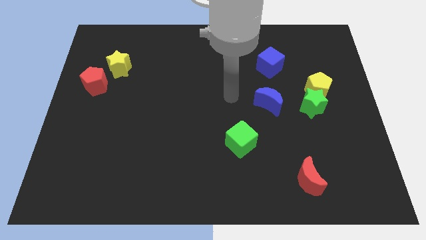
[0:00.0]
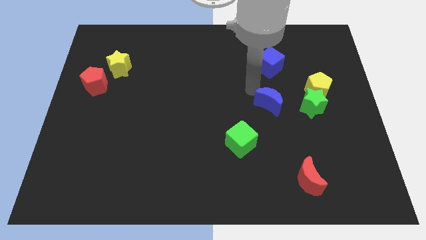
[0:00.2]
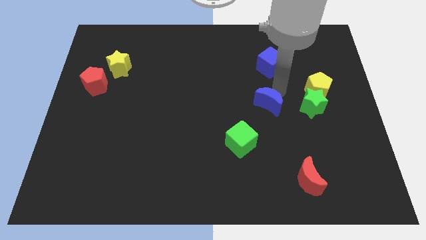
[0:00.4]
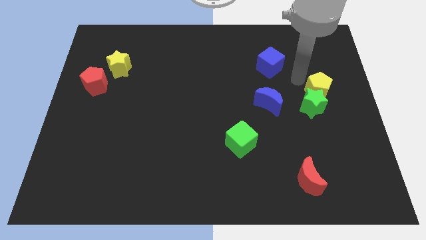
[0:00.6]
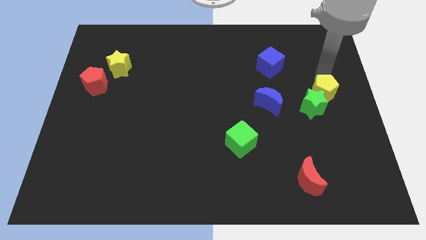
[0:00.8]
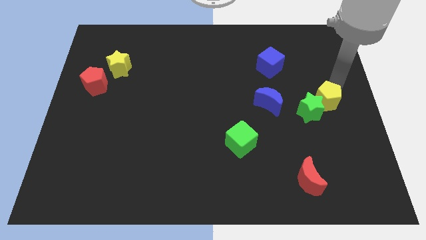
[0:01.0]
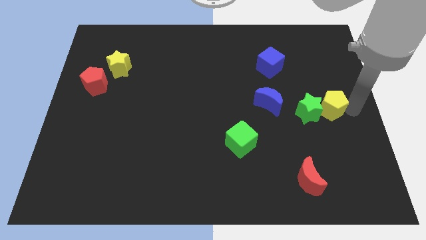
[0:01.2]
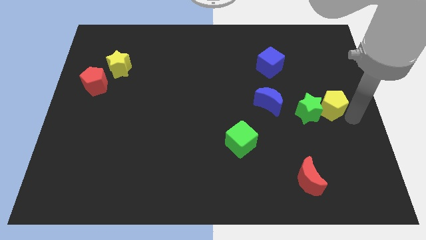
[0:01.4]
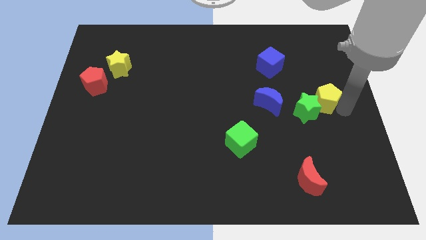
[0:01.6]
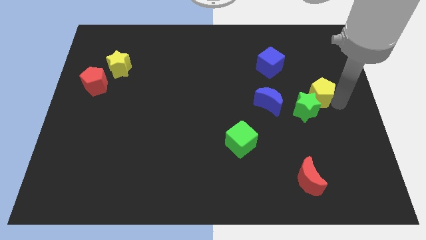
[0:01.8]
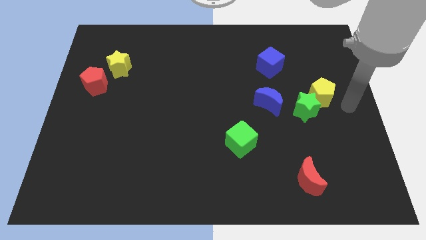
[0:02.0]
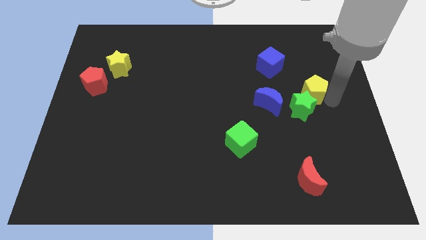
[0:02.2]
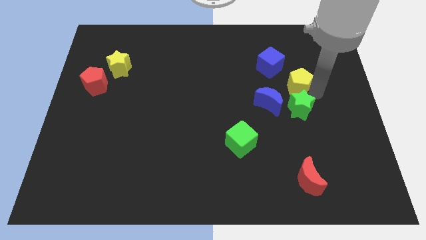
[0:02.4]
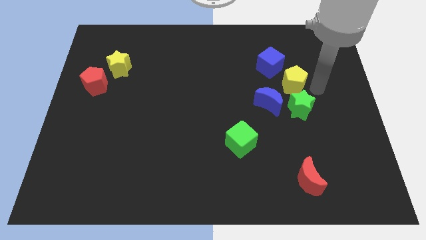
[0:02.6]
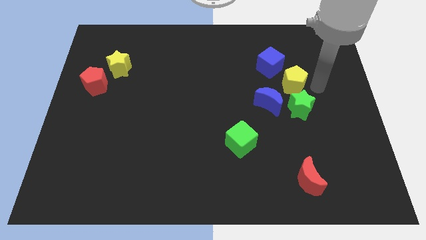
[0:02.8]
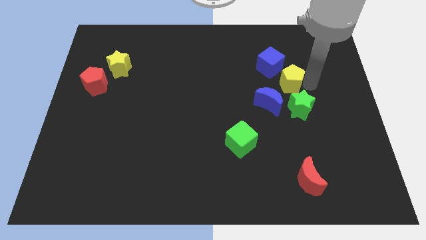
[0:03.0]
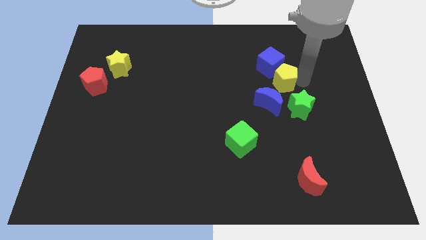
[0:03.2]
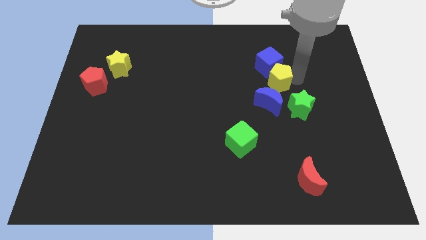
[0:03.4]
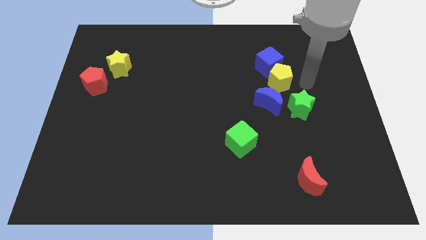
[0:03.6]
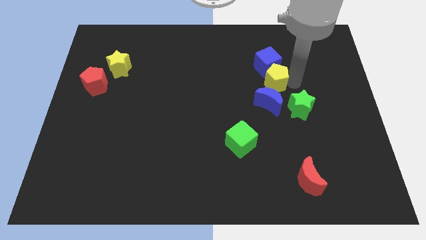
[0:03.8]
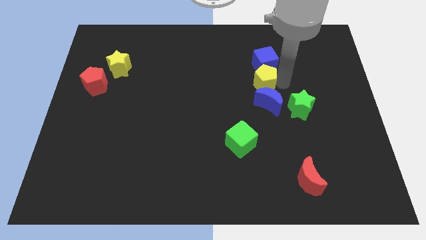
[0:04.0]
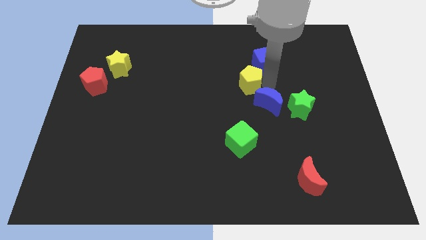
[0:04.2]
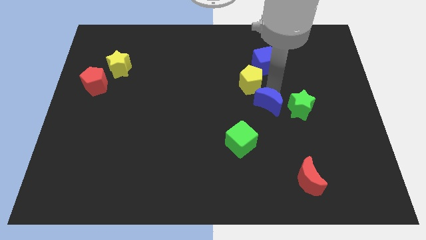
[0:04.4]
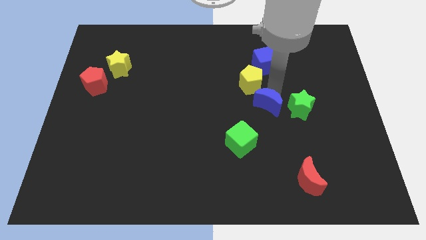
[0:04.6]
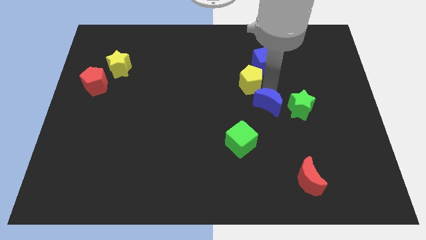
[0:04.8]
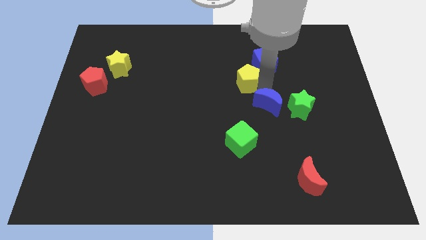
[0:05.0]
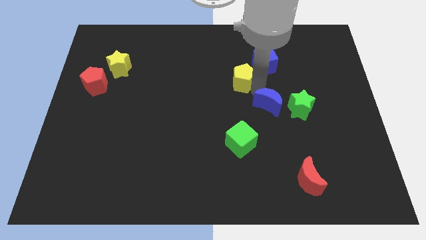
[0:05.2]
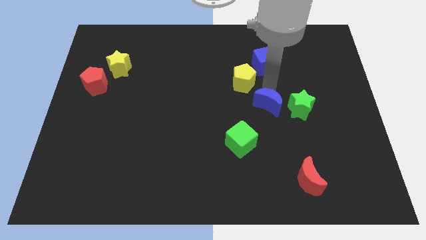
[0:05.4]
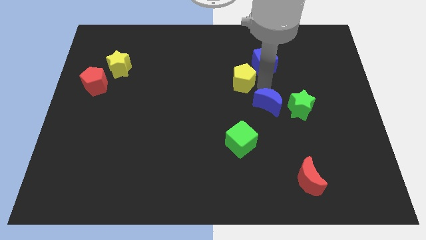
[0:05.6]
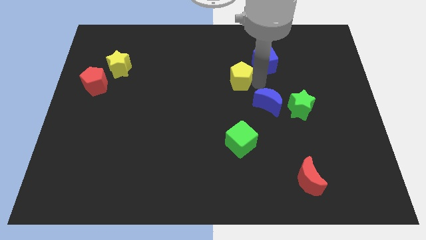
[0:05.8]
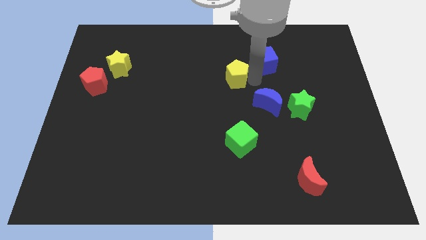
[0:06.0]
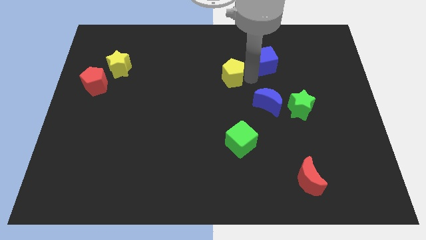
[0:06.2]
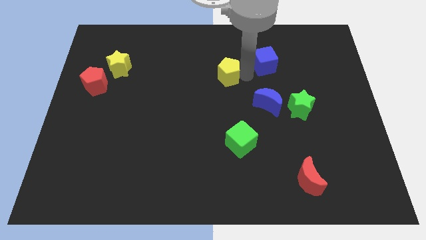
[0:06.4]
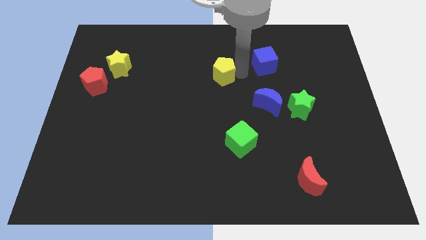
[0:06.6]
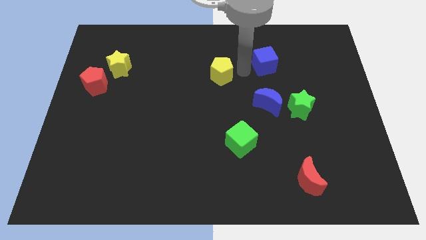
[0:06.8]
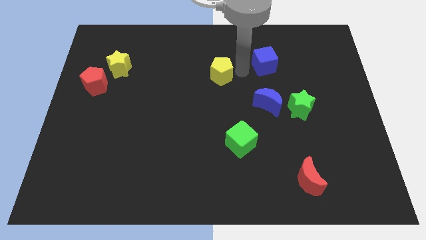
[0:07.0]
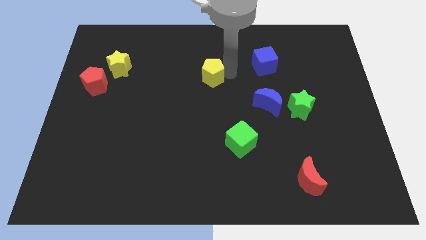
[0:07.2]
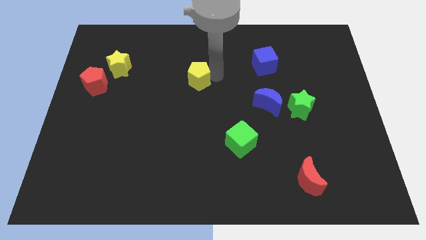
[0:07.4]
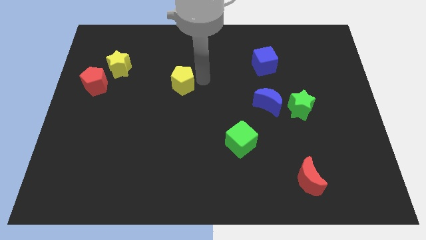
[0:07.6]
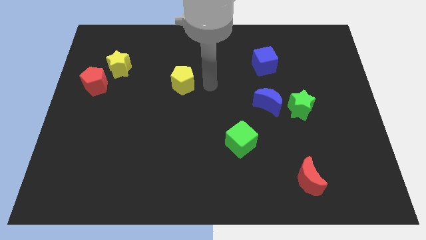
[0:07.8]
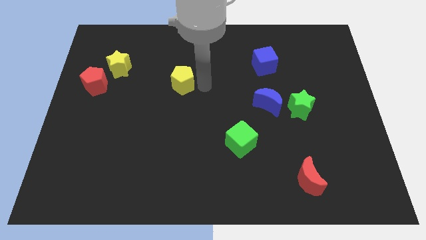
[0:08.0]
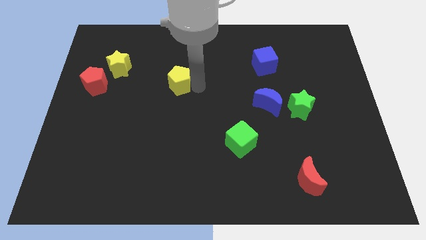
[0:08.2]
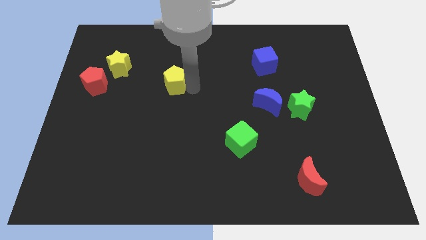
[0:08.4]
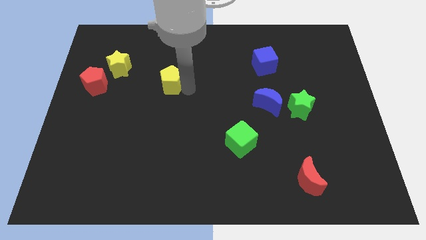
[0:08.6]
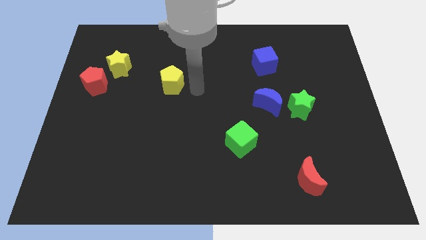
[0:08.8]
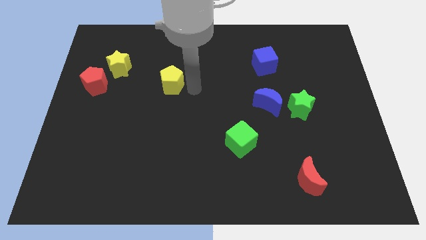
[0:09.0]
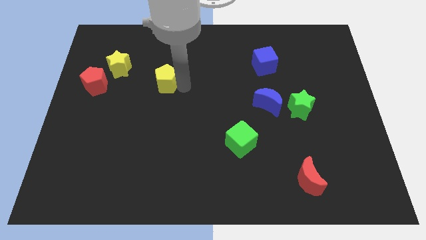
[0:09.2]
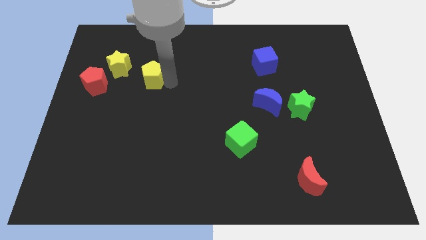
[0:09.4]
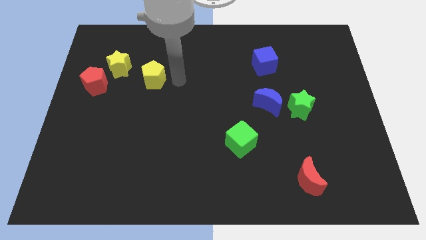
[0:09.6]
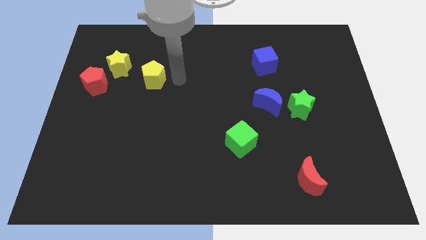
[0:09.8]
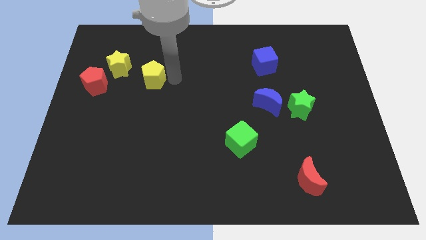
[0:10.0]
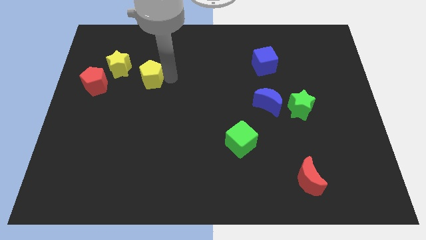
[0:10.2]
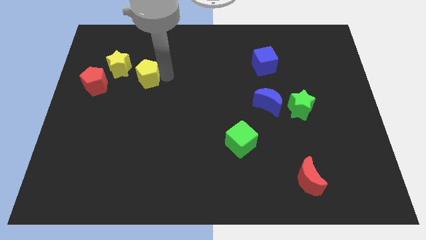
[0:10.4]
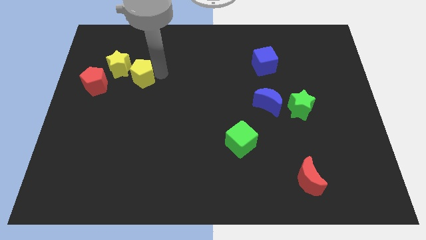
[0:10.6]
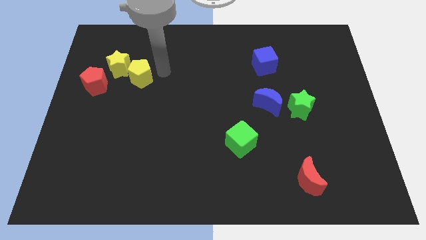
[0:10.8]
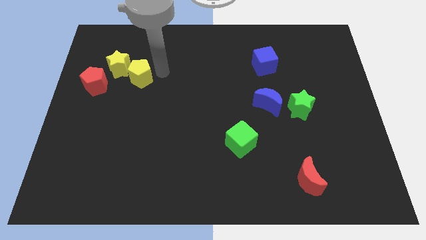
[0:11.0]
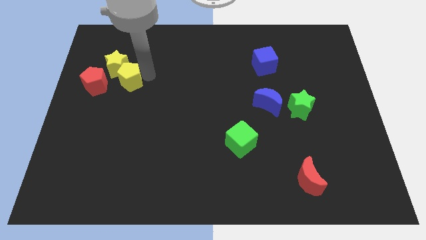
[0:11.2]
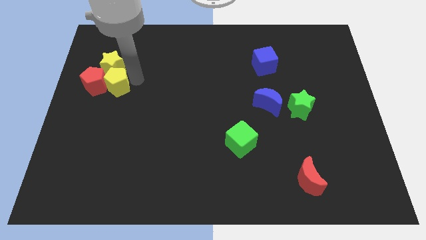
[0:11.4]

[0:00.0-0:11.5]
move the yellow pentagon next to the red pentagon

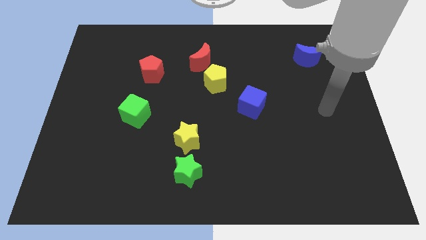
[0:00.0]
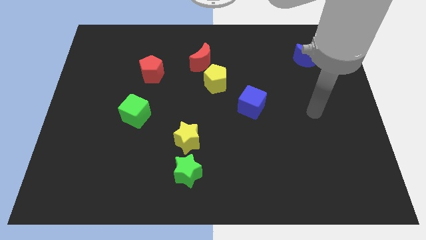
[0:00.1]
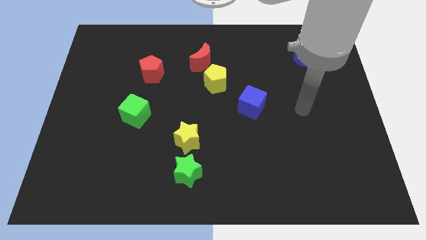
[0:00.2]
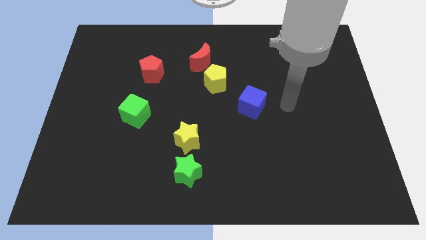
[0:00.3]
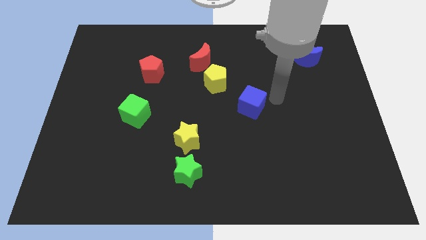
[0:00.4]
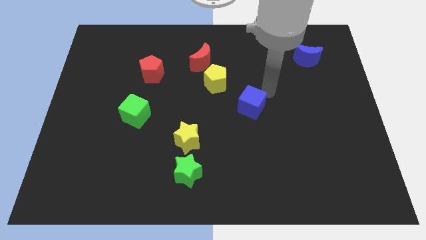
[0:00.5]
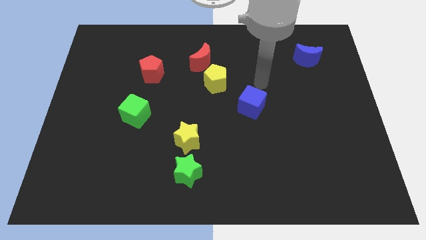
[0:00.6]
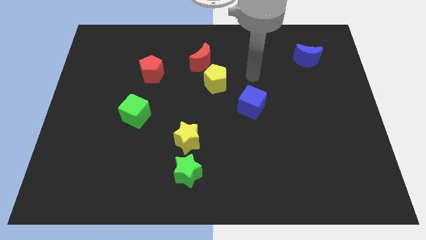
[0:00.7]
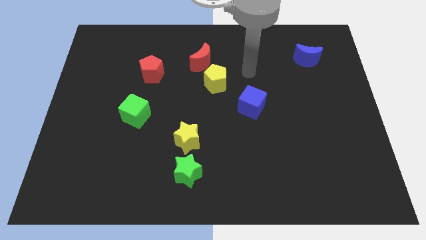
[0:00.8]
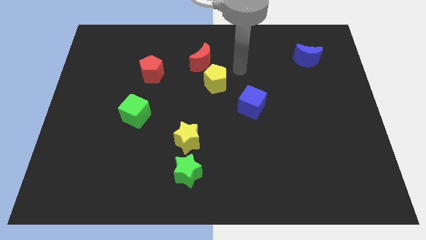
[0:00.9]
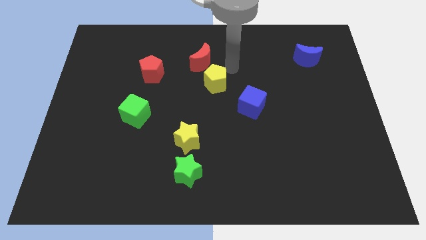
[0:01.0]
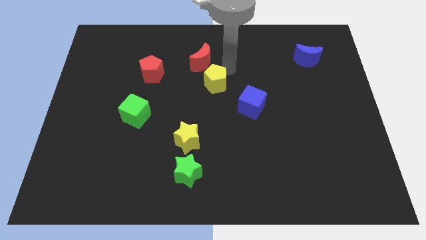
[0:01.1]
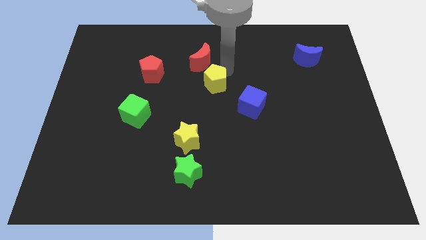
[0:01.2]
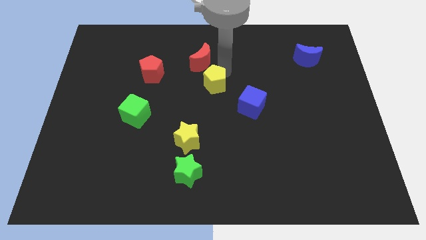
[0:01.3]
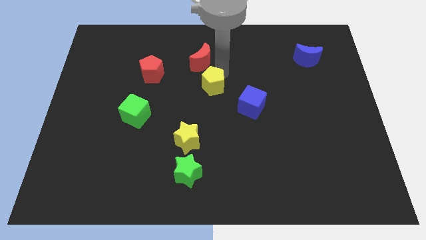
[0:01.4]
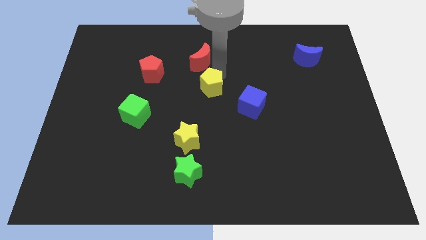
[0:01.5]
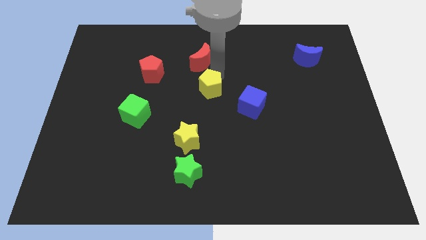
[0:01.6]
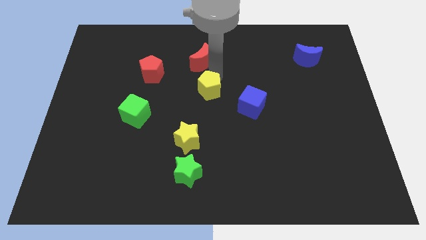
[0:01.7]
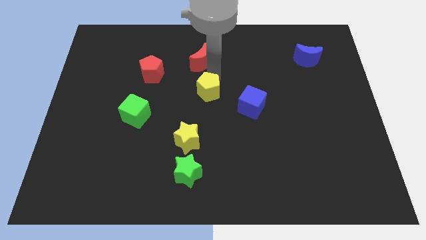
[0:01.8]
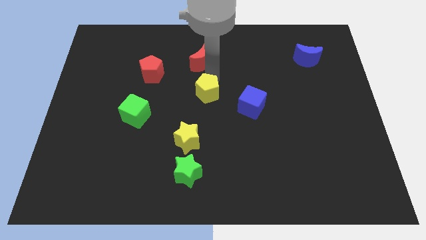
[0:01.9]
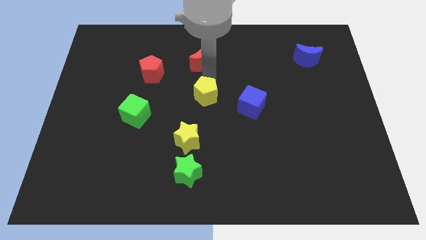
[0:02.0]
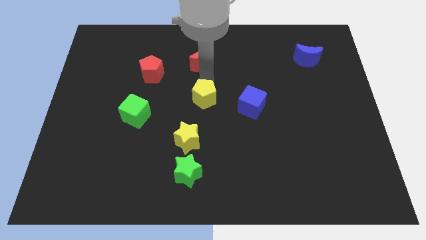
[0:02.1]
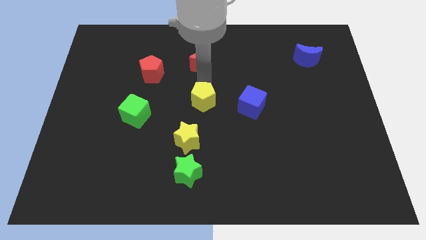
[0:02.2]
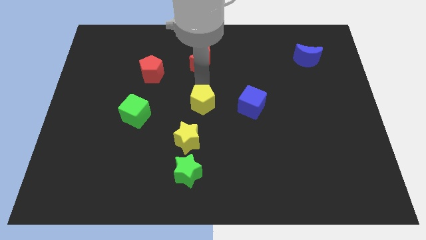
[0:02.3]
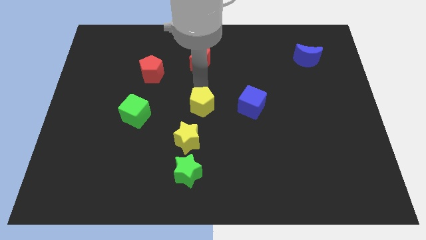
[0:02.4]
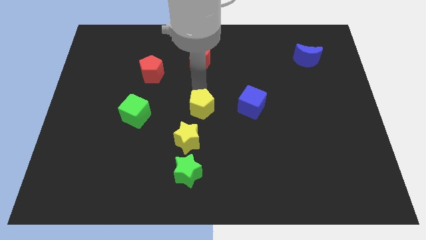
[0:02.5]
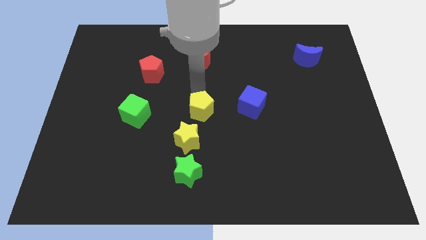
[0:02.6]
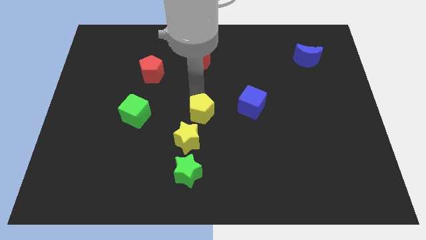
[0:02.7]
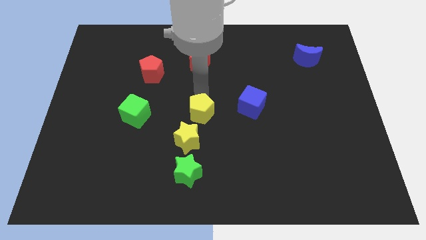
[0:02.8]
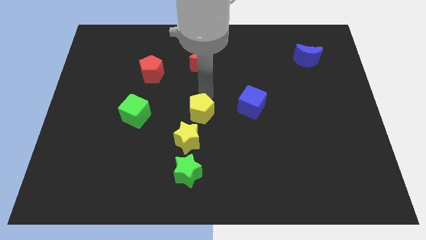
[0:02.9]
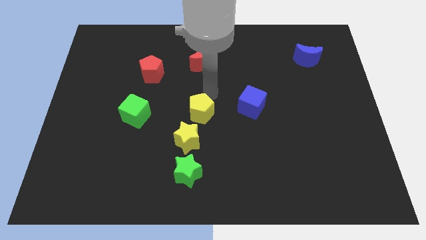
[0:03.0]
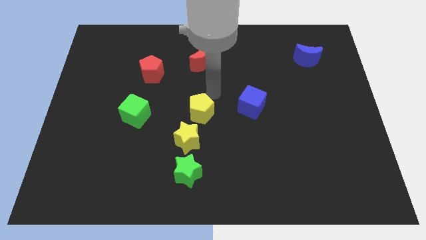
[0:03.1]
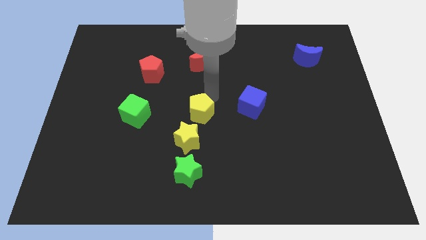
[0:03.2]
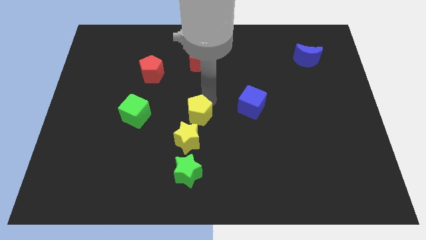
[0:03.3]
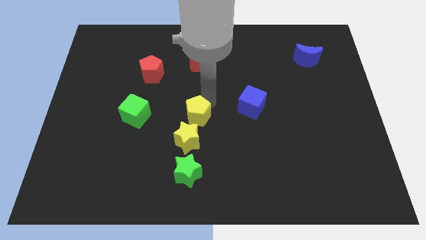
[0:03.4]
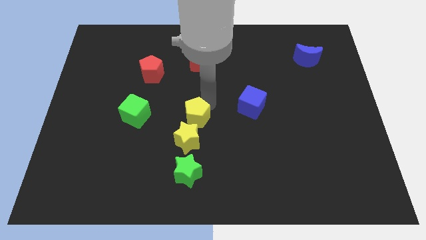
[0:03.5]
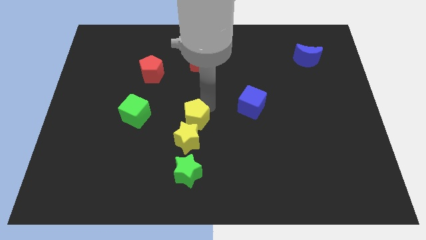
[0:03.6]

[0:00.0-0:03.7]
push the yellow pentagon next to the yellow star
